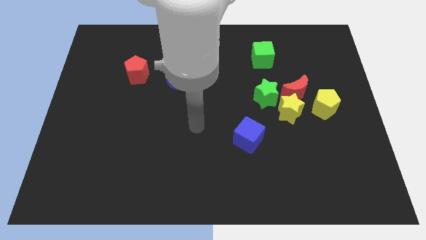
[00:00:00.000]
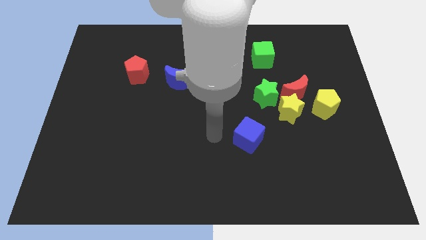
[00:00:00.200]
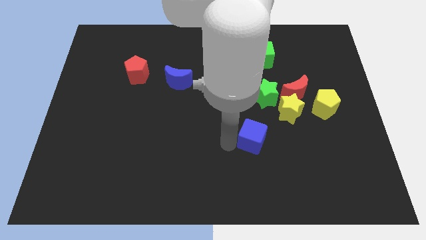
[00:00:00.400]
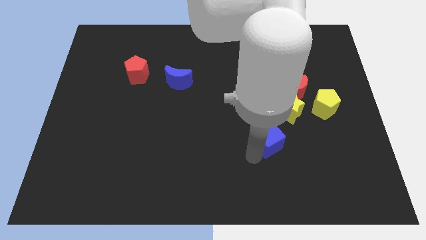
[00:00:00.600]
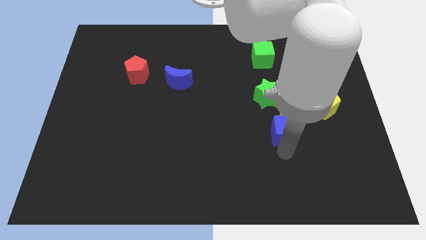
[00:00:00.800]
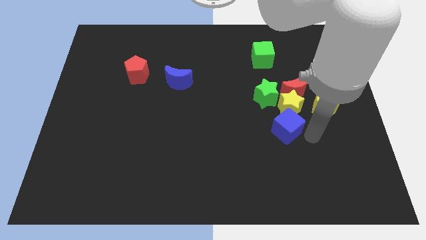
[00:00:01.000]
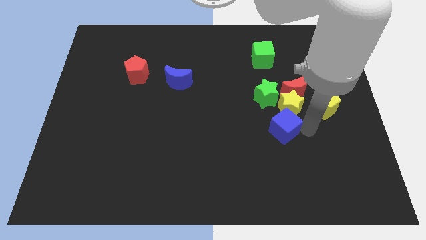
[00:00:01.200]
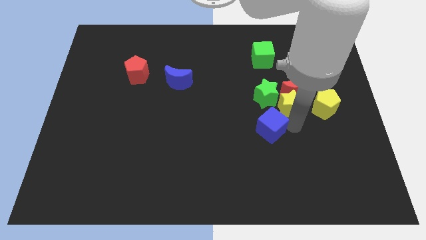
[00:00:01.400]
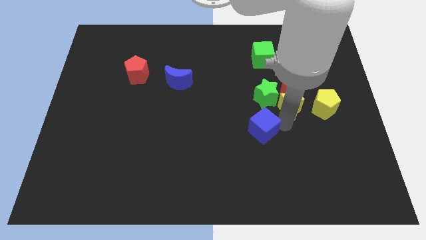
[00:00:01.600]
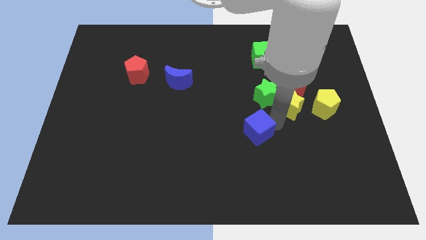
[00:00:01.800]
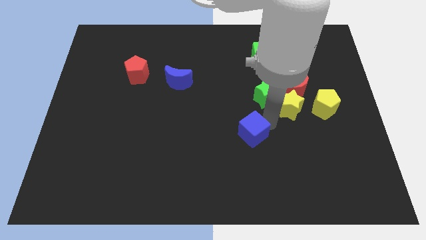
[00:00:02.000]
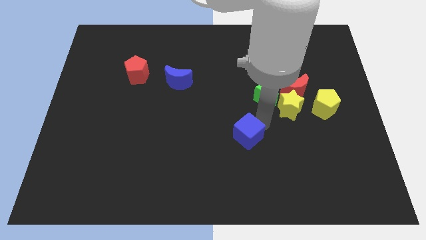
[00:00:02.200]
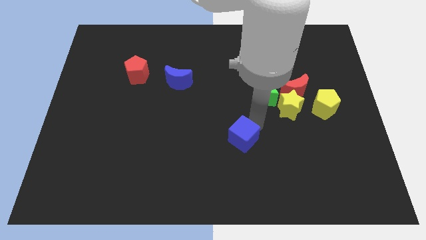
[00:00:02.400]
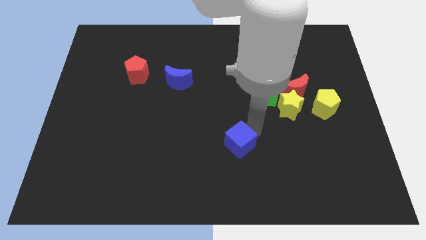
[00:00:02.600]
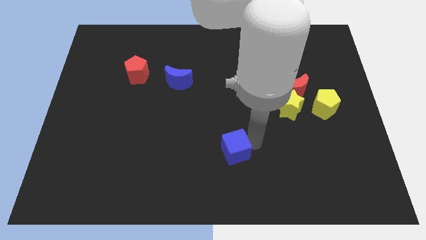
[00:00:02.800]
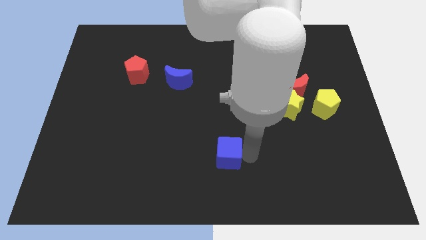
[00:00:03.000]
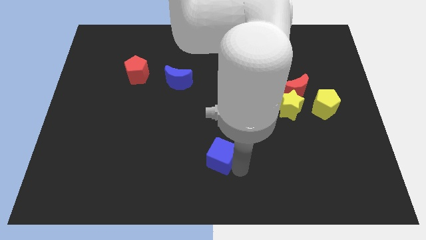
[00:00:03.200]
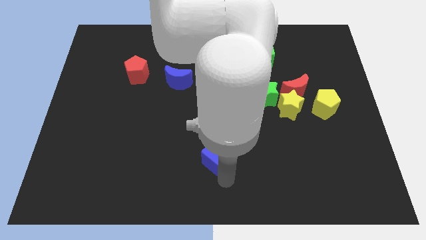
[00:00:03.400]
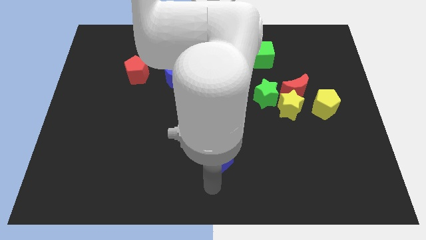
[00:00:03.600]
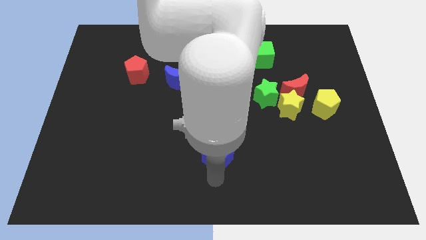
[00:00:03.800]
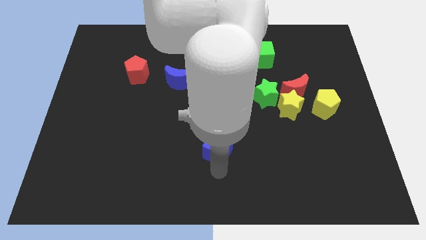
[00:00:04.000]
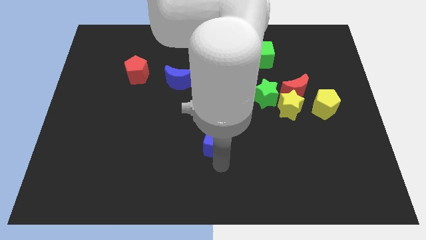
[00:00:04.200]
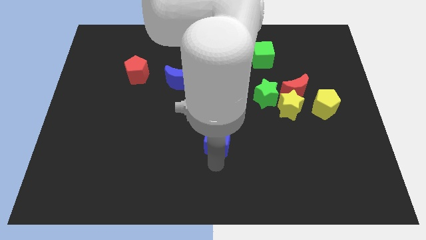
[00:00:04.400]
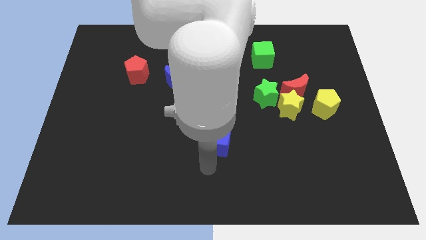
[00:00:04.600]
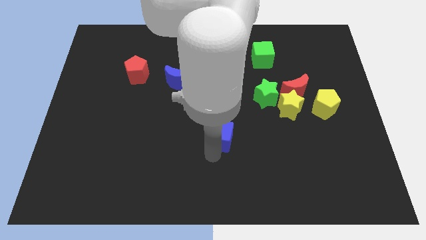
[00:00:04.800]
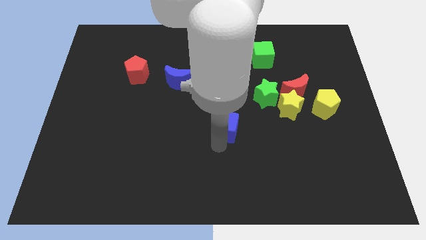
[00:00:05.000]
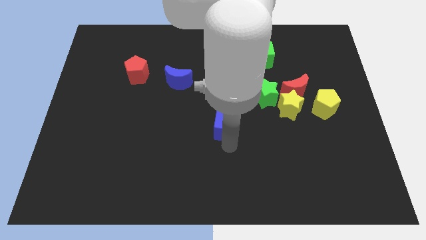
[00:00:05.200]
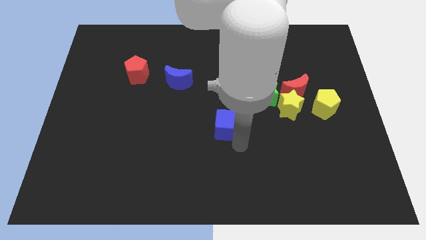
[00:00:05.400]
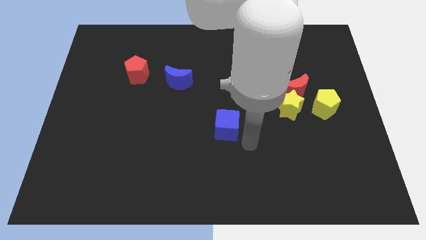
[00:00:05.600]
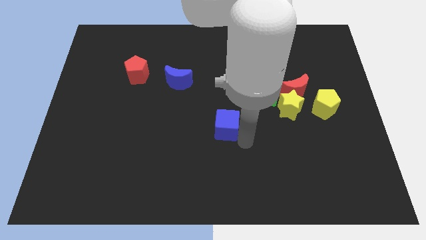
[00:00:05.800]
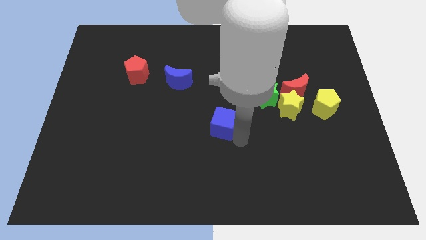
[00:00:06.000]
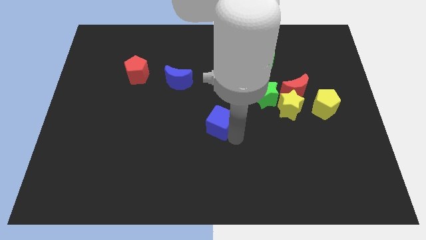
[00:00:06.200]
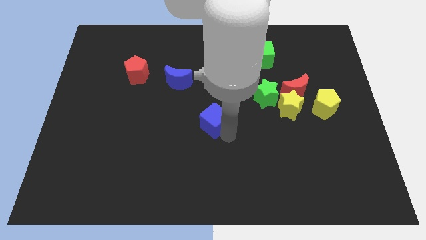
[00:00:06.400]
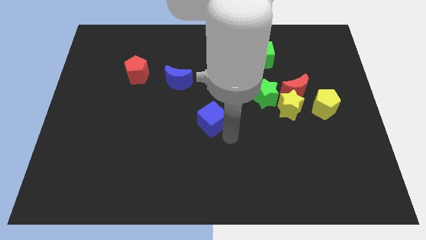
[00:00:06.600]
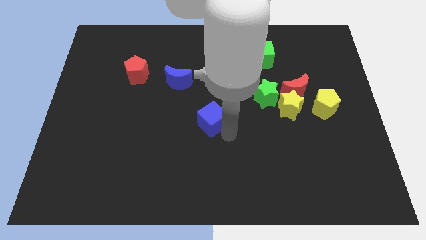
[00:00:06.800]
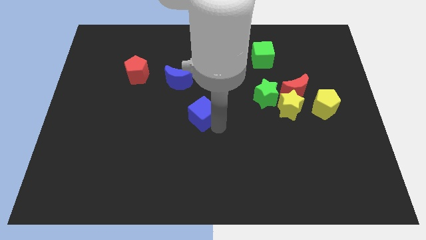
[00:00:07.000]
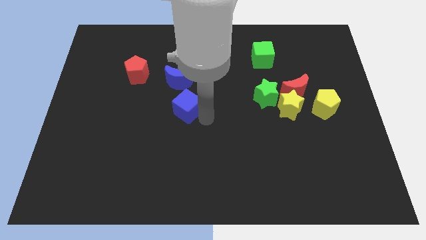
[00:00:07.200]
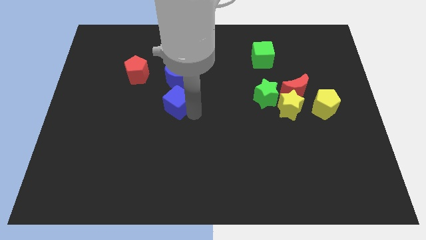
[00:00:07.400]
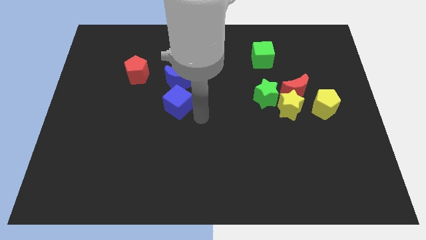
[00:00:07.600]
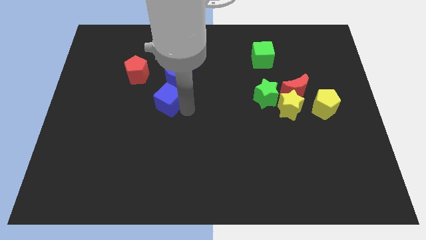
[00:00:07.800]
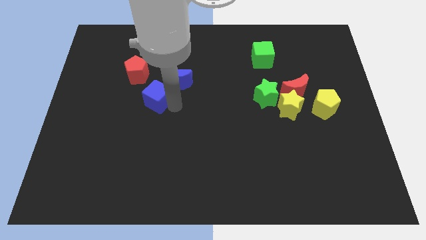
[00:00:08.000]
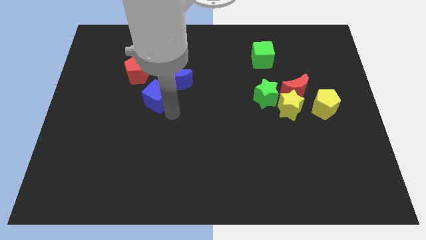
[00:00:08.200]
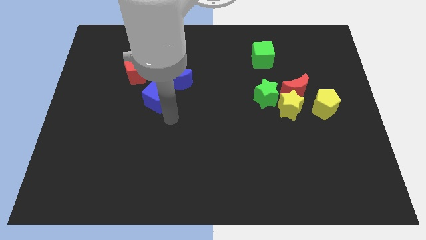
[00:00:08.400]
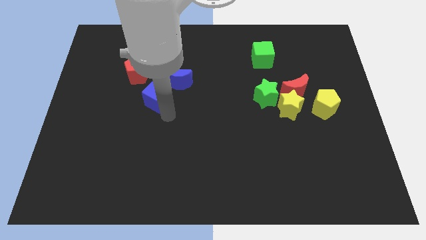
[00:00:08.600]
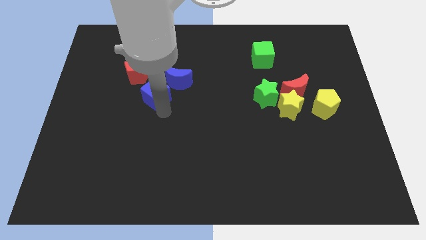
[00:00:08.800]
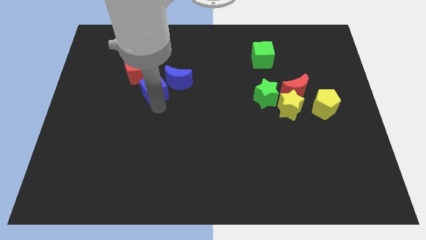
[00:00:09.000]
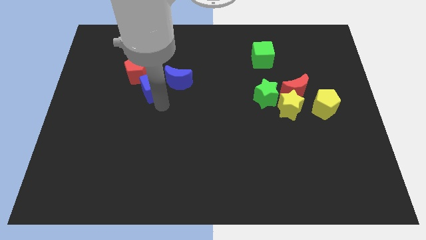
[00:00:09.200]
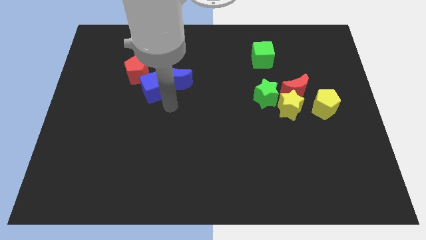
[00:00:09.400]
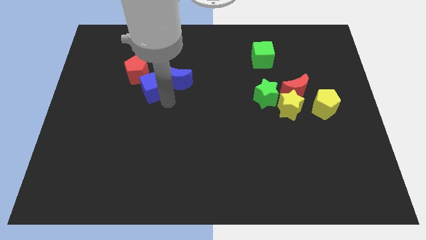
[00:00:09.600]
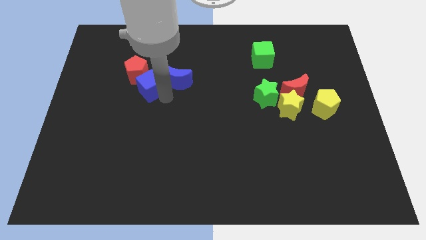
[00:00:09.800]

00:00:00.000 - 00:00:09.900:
move the blue cube to the red pentagon
